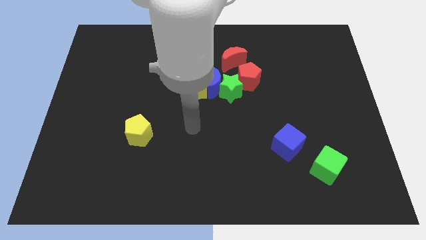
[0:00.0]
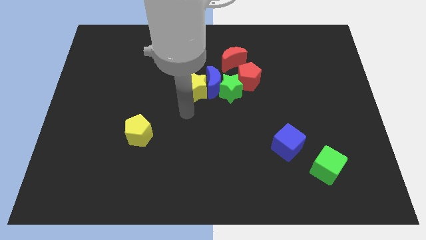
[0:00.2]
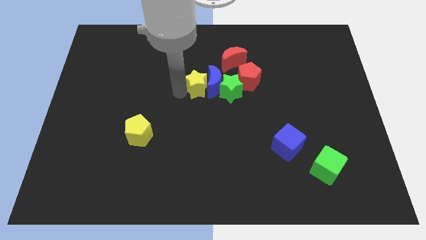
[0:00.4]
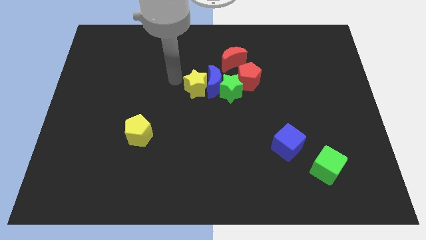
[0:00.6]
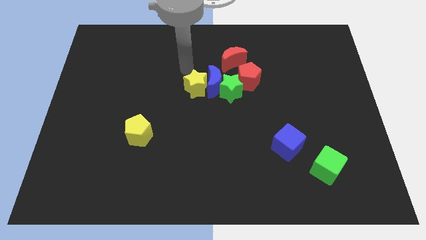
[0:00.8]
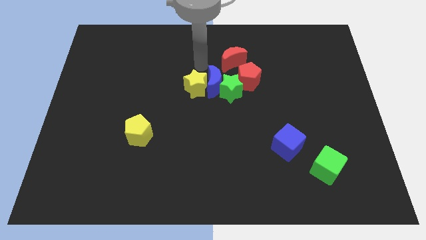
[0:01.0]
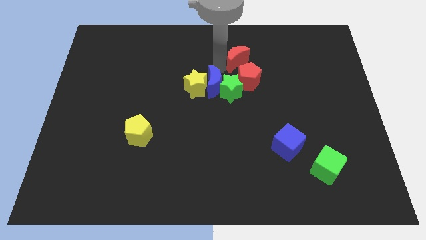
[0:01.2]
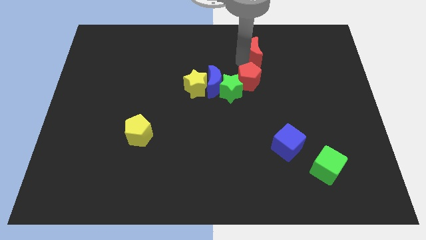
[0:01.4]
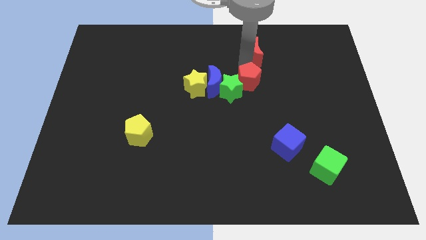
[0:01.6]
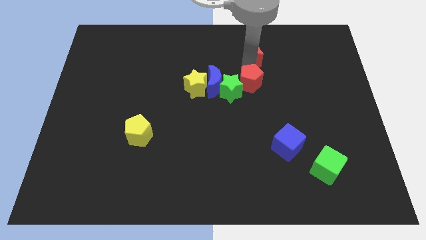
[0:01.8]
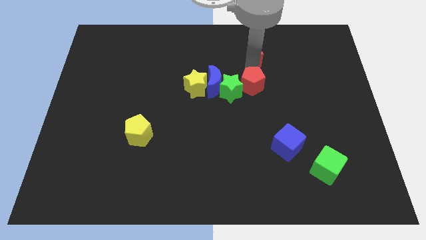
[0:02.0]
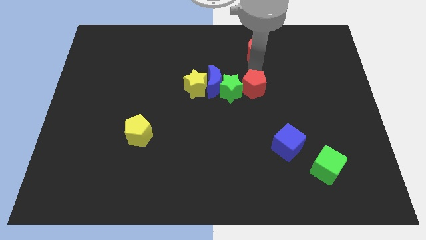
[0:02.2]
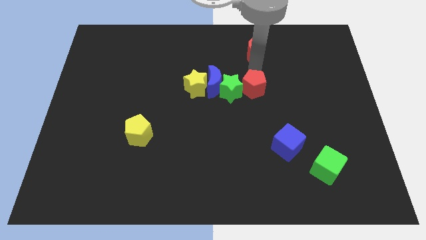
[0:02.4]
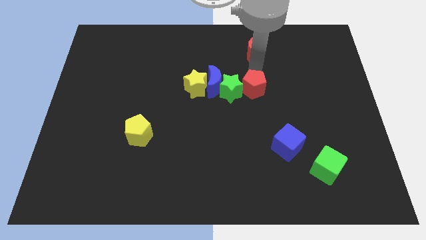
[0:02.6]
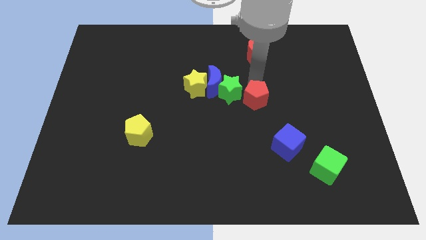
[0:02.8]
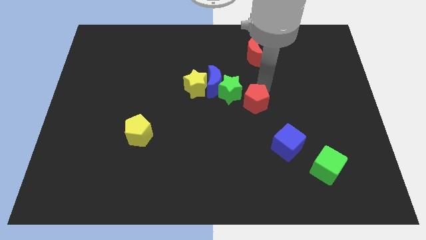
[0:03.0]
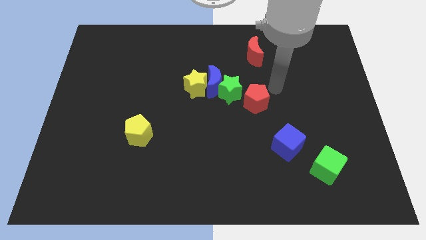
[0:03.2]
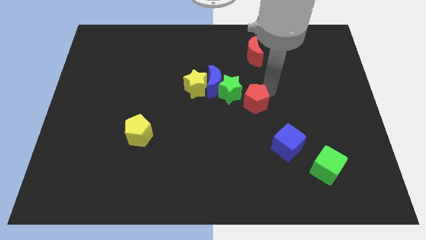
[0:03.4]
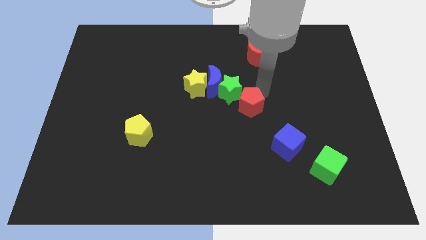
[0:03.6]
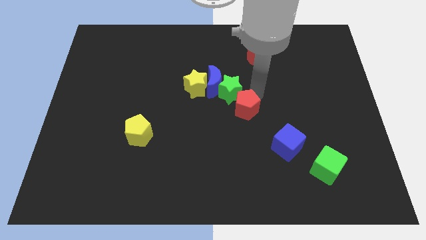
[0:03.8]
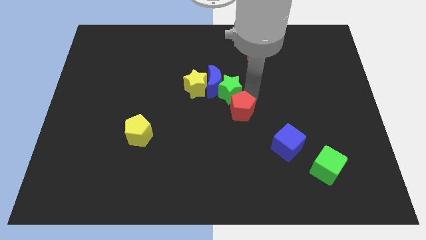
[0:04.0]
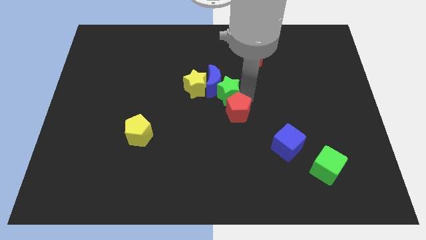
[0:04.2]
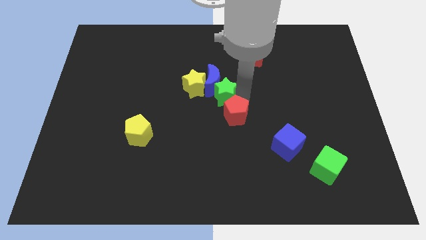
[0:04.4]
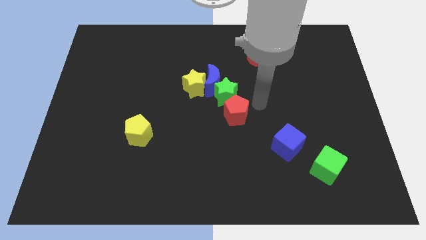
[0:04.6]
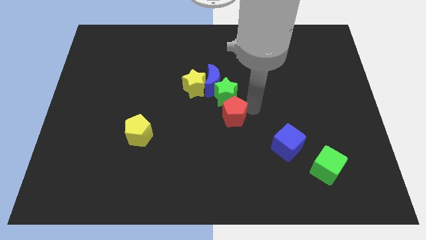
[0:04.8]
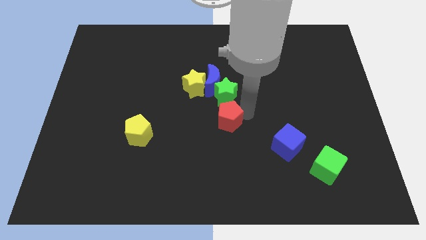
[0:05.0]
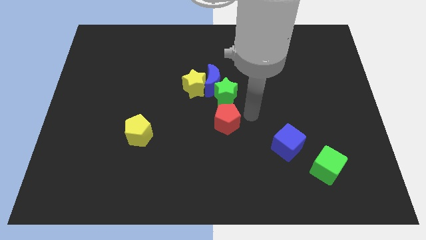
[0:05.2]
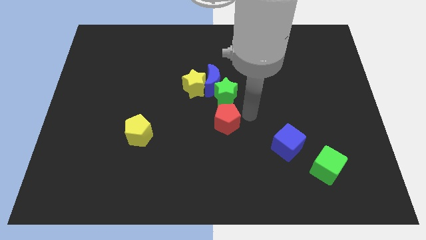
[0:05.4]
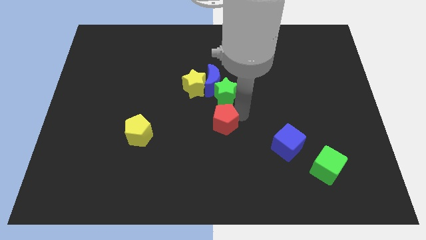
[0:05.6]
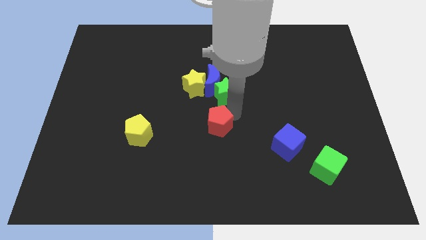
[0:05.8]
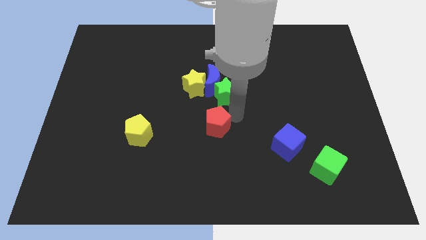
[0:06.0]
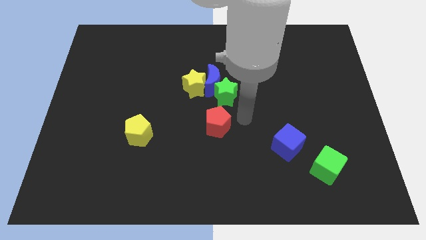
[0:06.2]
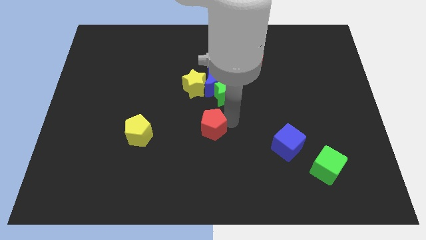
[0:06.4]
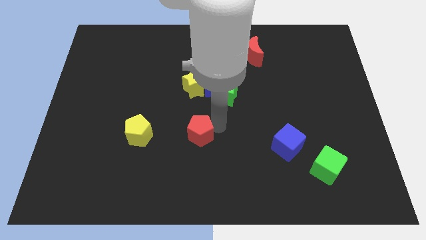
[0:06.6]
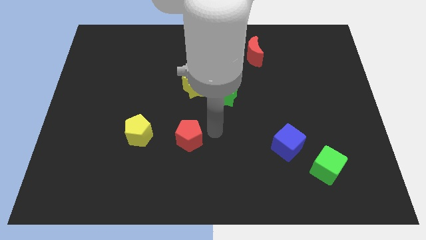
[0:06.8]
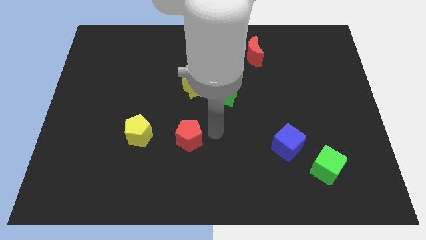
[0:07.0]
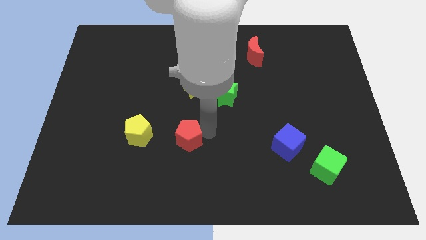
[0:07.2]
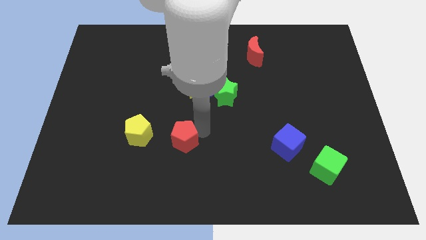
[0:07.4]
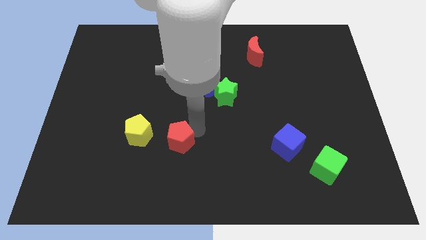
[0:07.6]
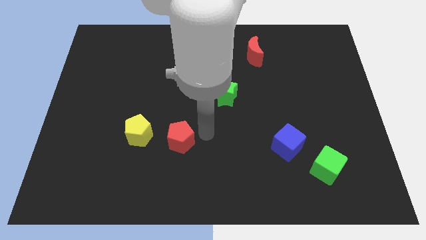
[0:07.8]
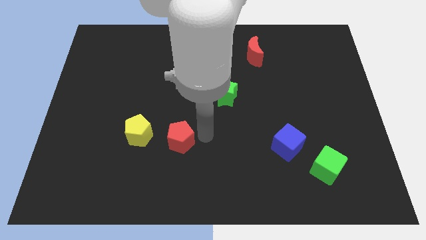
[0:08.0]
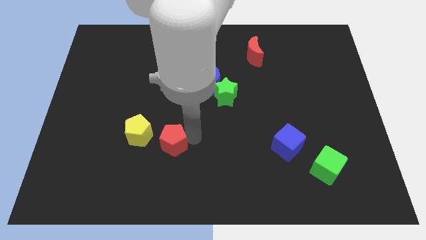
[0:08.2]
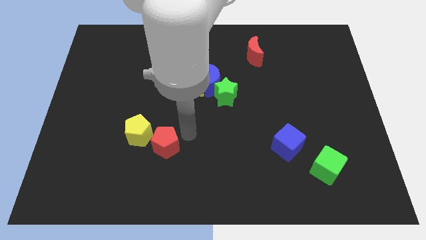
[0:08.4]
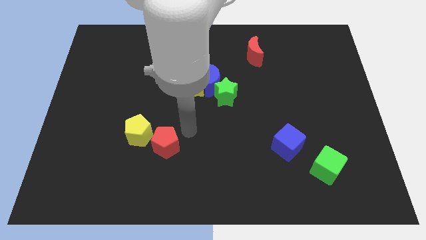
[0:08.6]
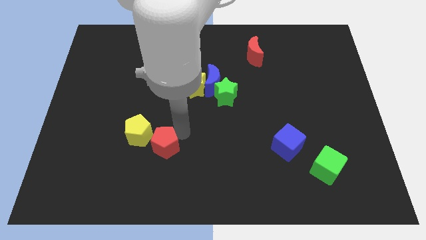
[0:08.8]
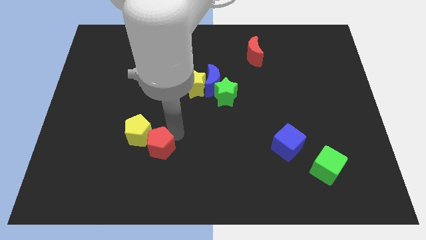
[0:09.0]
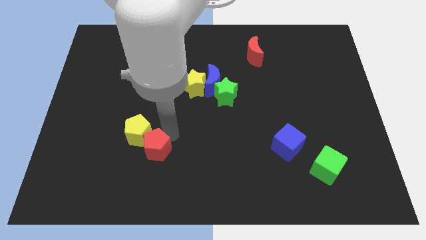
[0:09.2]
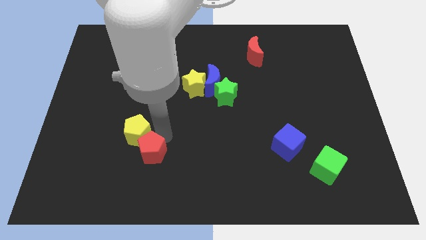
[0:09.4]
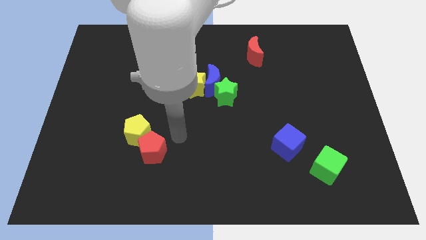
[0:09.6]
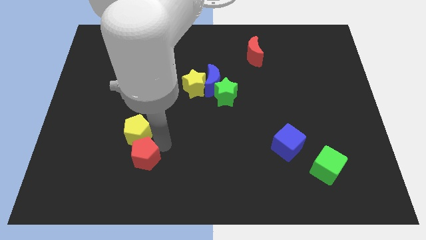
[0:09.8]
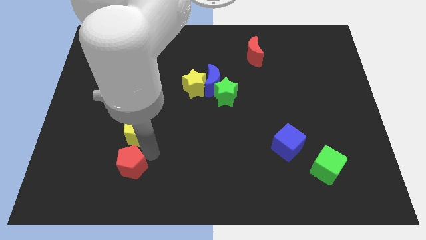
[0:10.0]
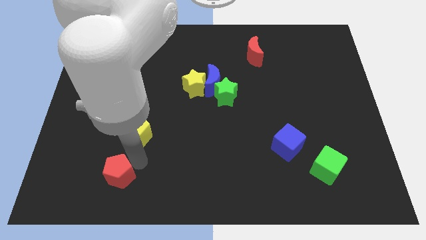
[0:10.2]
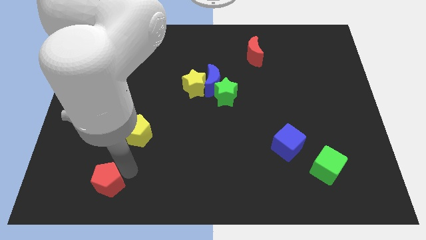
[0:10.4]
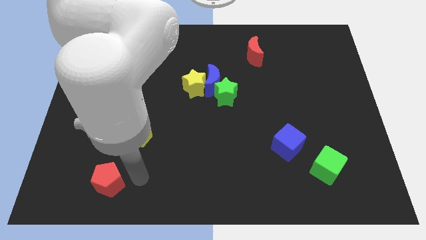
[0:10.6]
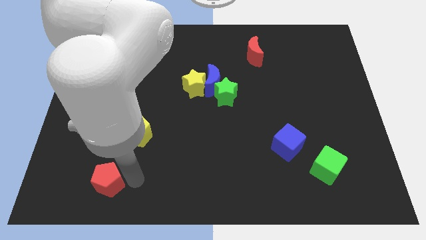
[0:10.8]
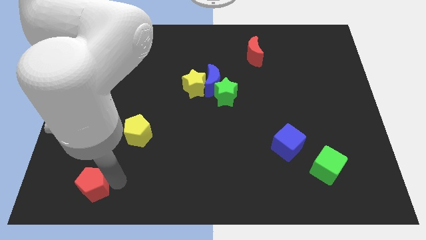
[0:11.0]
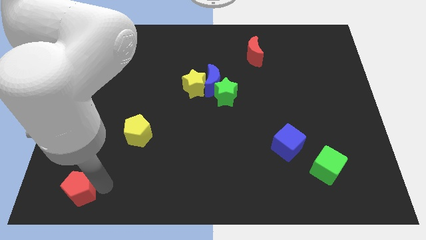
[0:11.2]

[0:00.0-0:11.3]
move the red pentagon to the bottom left of the board
